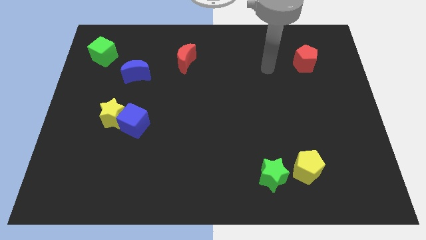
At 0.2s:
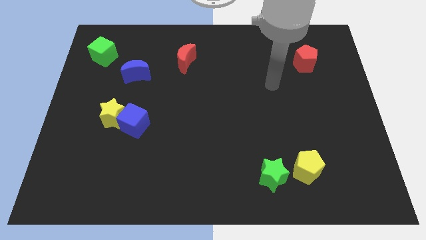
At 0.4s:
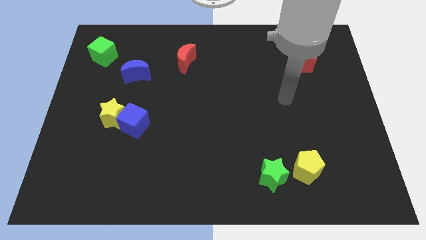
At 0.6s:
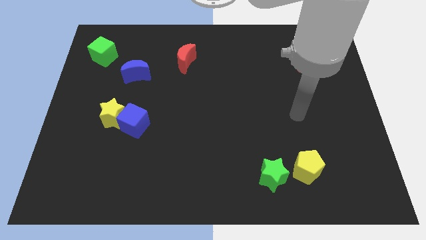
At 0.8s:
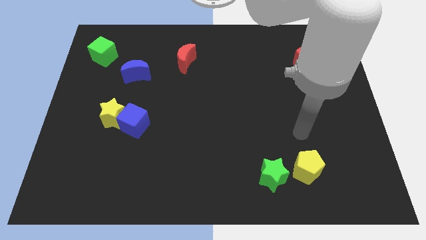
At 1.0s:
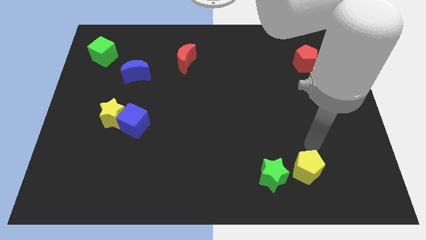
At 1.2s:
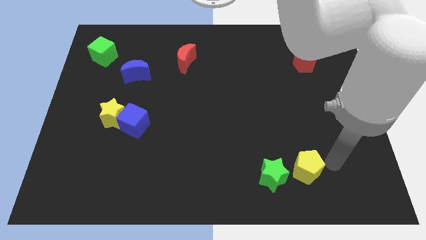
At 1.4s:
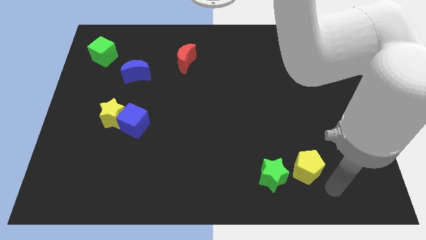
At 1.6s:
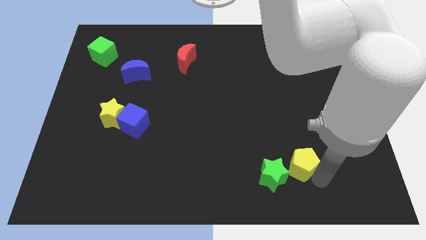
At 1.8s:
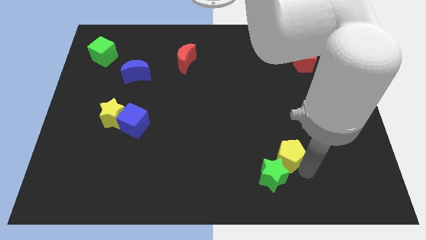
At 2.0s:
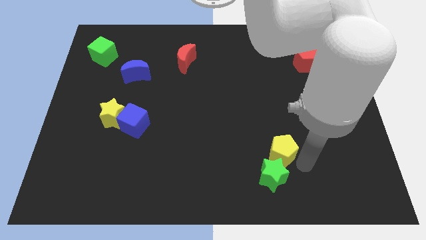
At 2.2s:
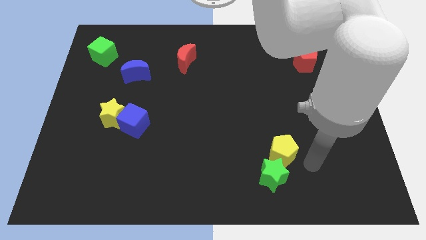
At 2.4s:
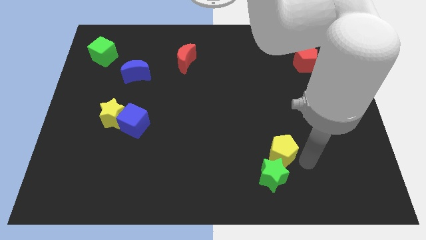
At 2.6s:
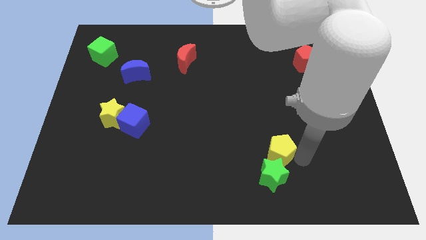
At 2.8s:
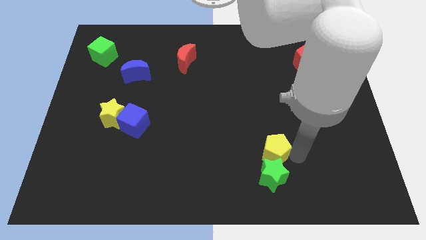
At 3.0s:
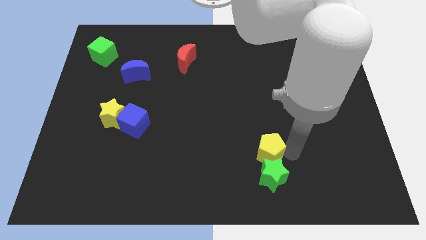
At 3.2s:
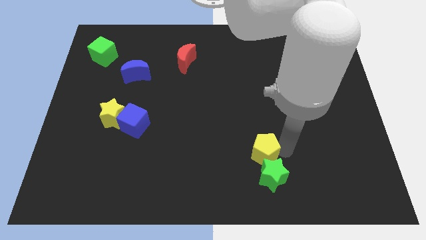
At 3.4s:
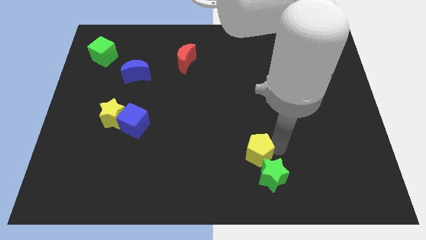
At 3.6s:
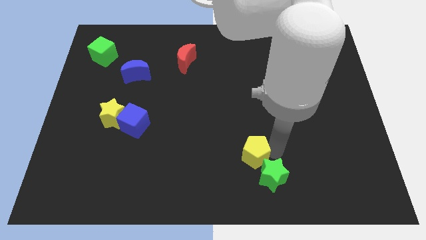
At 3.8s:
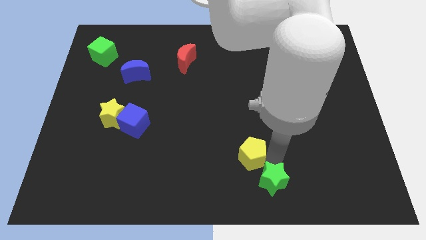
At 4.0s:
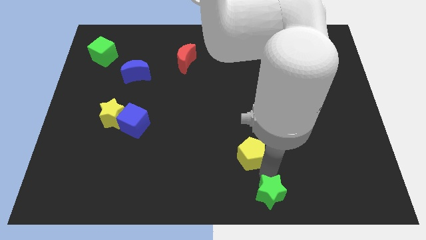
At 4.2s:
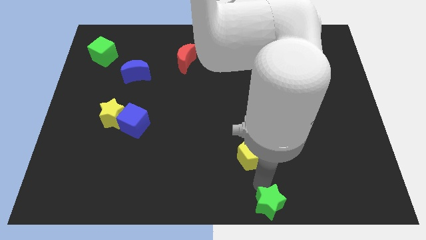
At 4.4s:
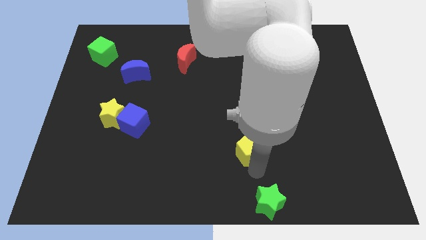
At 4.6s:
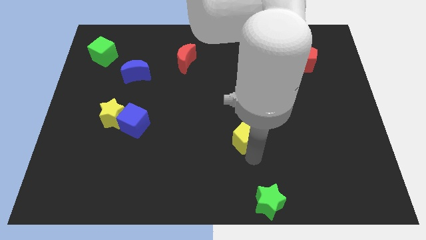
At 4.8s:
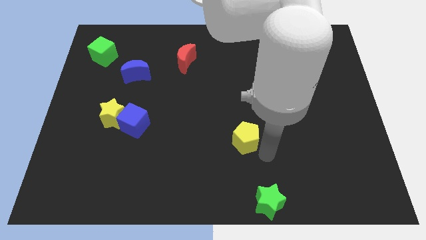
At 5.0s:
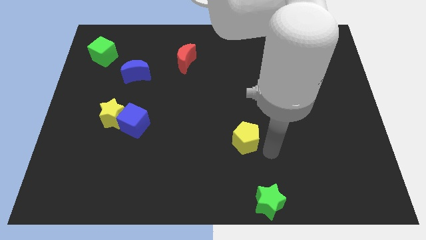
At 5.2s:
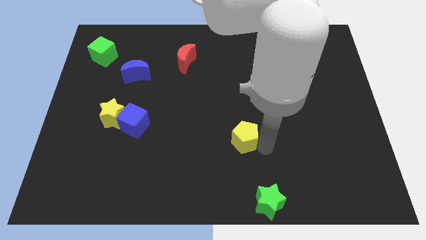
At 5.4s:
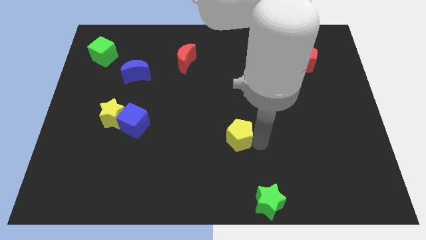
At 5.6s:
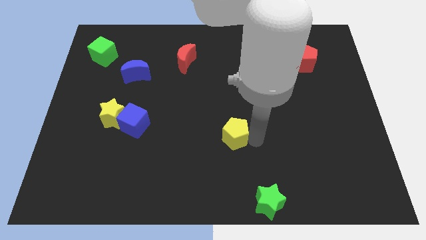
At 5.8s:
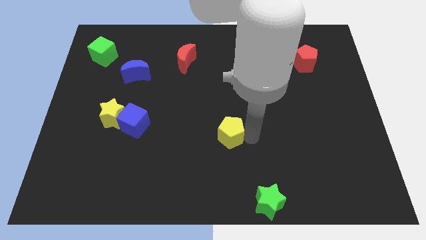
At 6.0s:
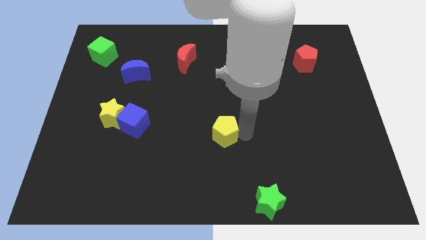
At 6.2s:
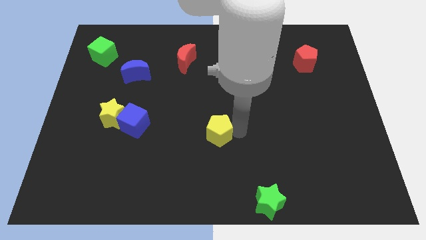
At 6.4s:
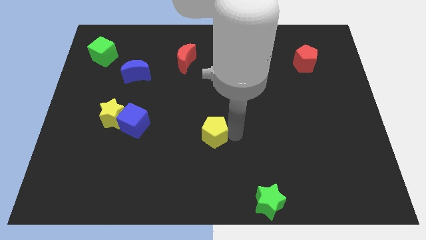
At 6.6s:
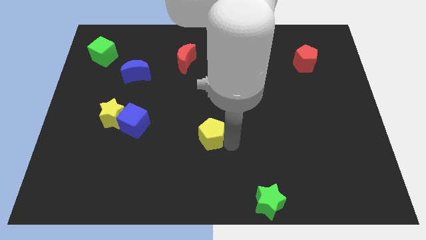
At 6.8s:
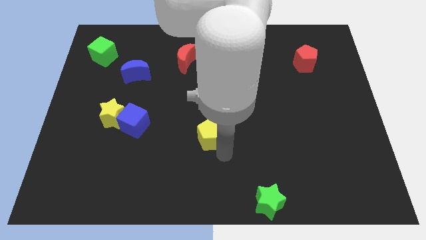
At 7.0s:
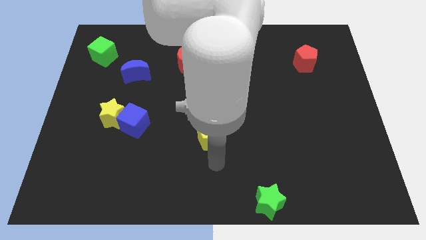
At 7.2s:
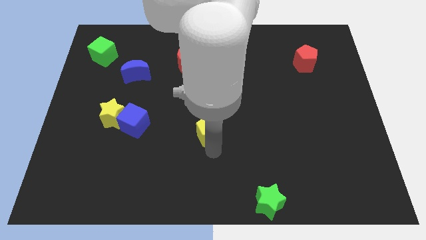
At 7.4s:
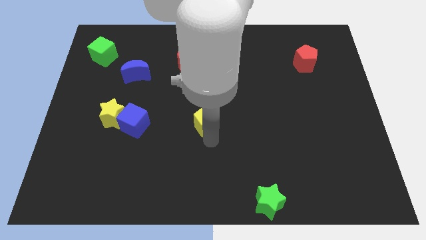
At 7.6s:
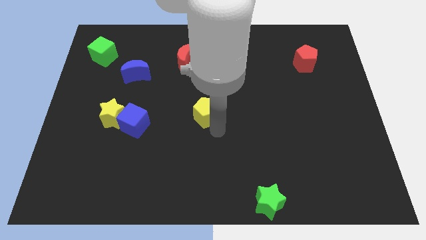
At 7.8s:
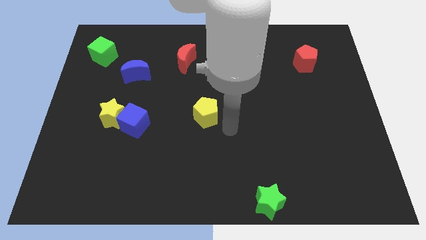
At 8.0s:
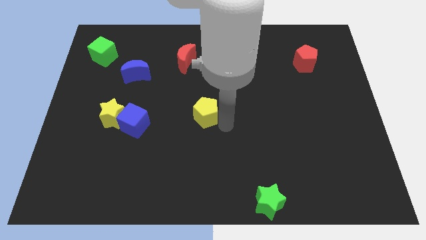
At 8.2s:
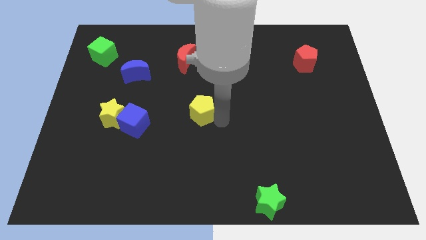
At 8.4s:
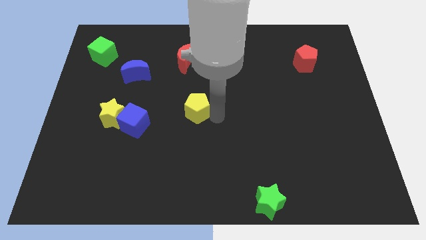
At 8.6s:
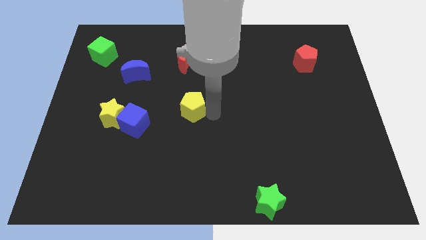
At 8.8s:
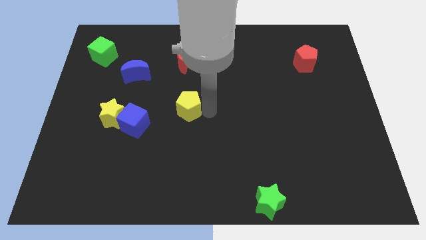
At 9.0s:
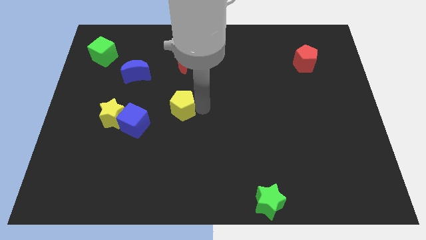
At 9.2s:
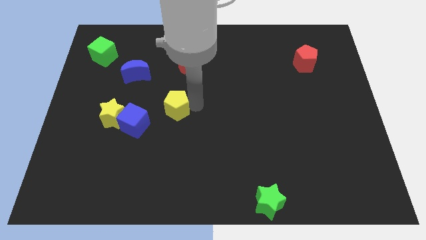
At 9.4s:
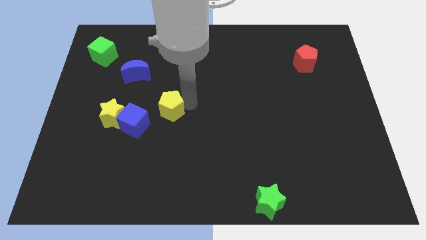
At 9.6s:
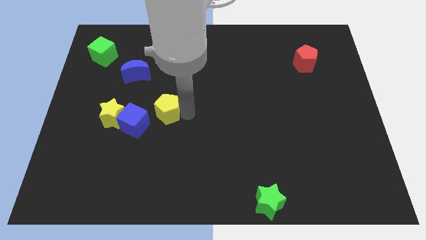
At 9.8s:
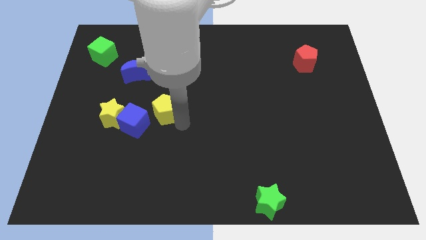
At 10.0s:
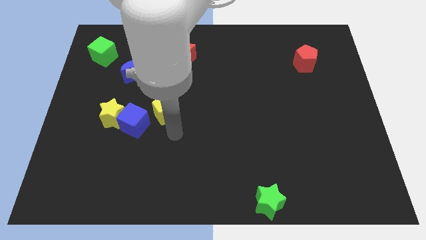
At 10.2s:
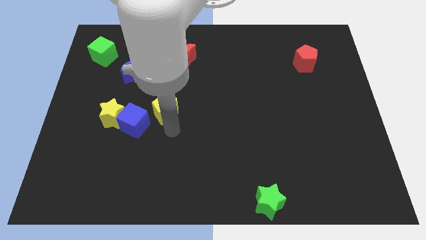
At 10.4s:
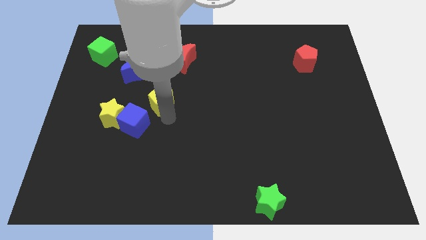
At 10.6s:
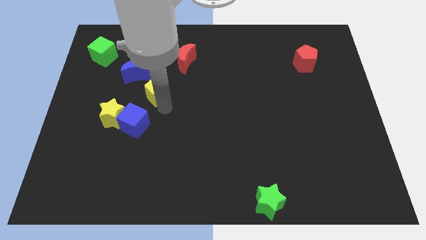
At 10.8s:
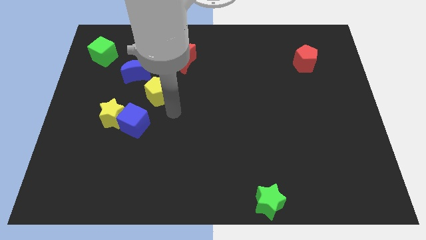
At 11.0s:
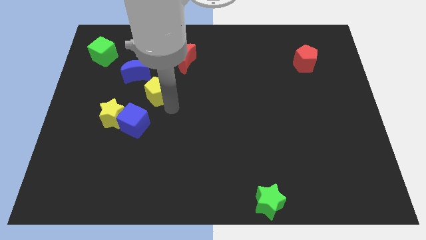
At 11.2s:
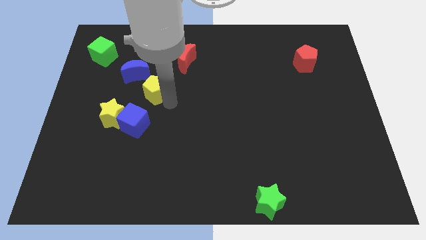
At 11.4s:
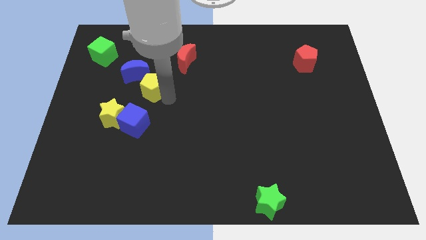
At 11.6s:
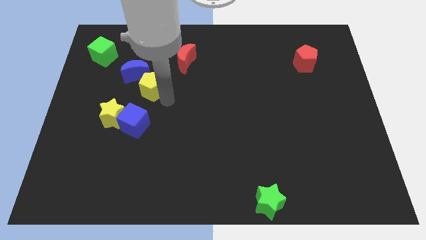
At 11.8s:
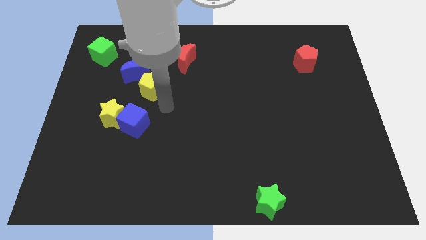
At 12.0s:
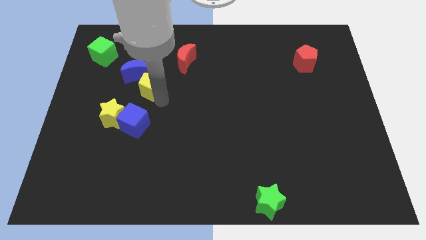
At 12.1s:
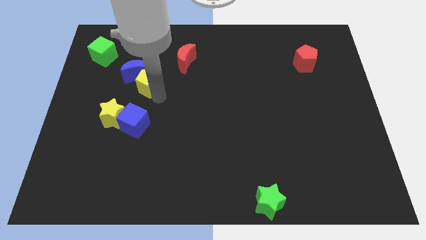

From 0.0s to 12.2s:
move the yellow pentagon towards the blue moon

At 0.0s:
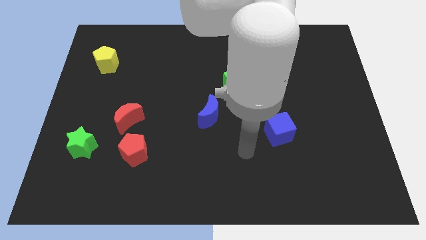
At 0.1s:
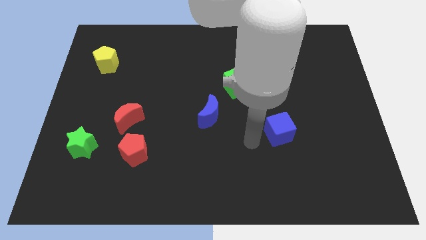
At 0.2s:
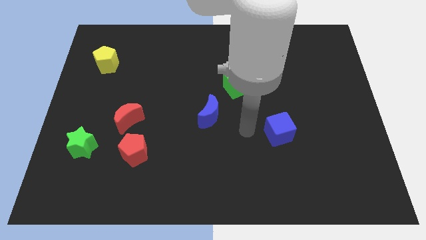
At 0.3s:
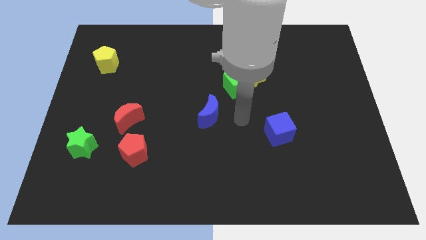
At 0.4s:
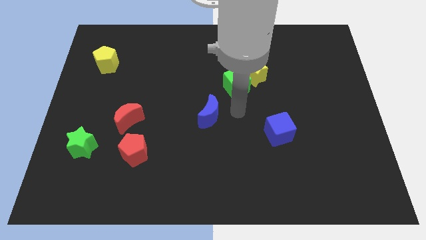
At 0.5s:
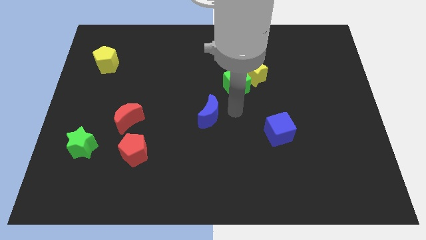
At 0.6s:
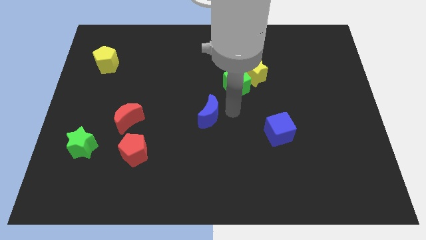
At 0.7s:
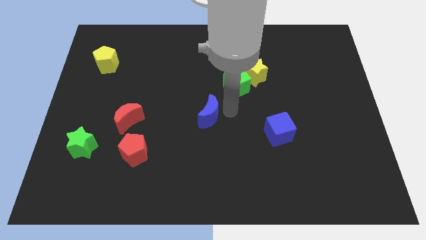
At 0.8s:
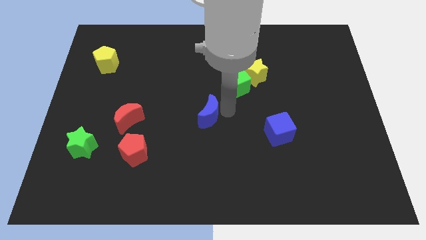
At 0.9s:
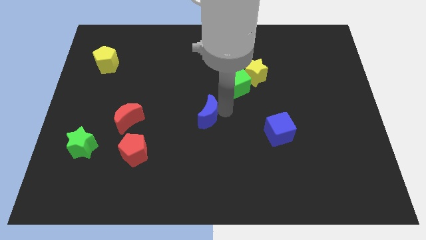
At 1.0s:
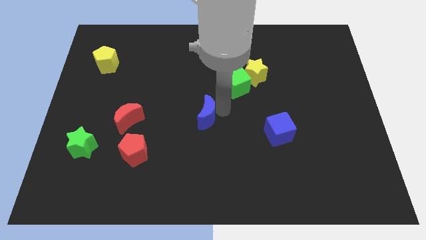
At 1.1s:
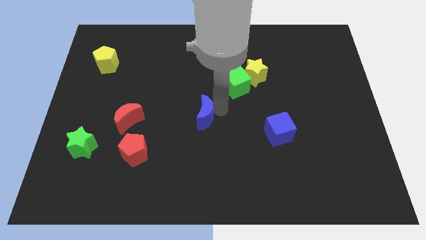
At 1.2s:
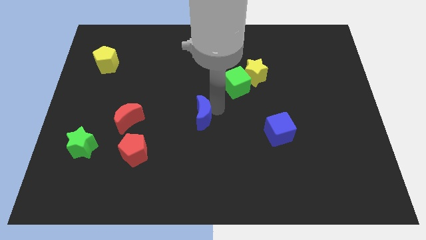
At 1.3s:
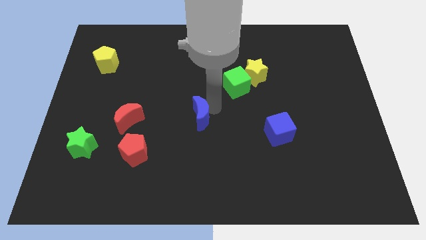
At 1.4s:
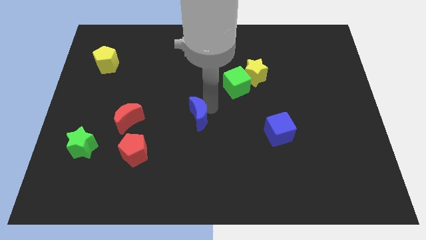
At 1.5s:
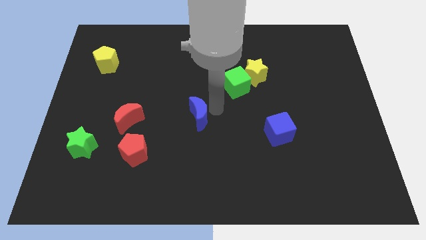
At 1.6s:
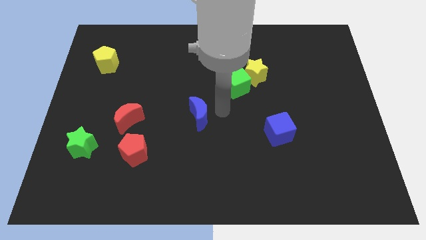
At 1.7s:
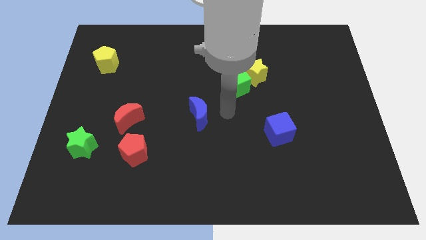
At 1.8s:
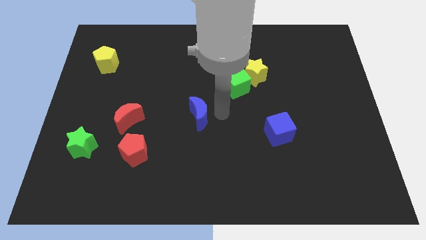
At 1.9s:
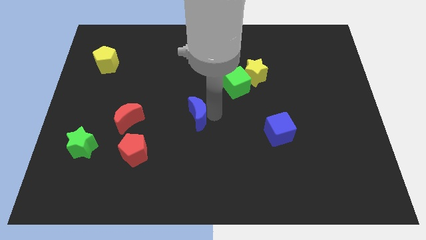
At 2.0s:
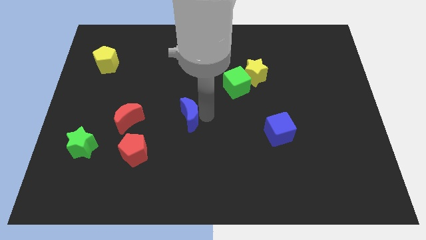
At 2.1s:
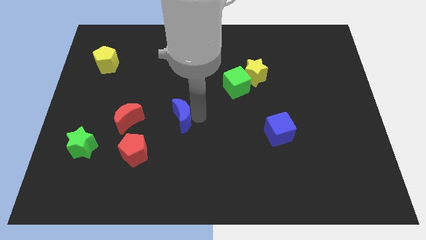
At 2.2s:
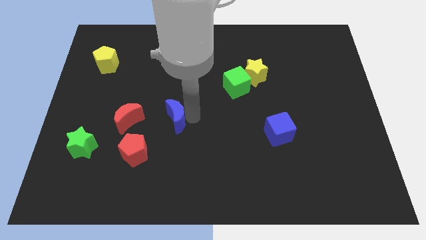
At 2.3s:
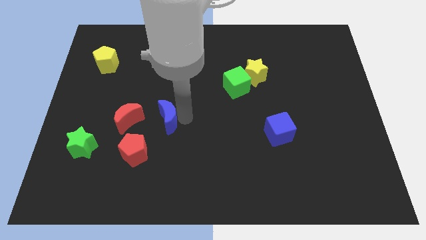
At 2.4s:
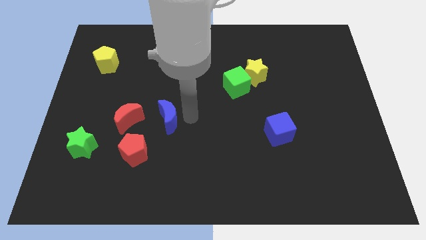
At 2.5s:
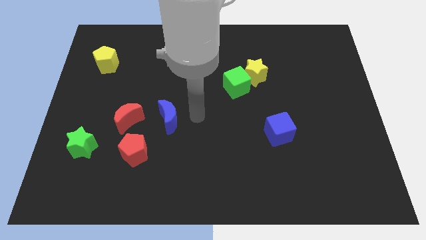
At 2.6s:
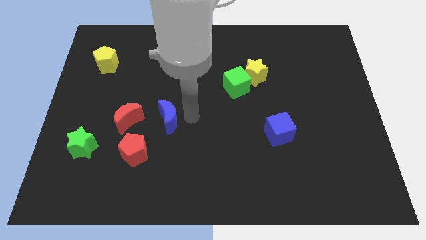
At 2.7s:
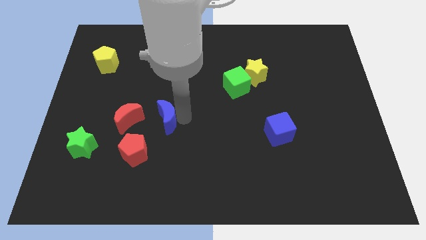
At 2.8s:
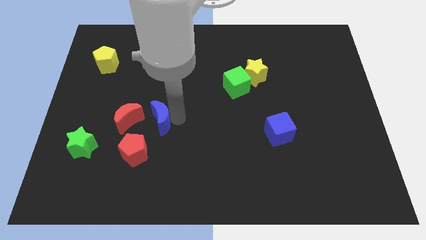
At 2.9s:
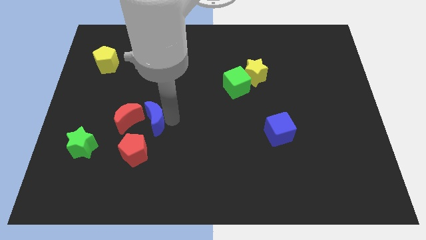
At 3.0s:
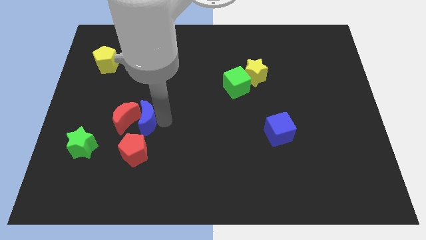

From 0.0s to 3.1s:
move the blue moon next to the red moon
